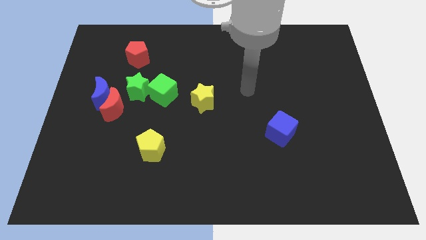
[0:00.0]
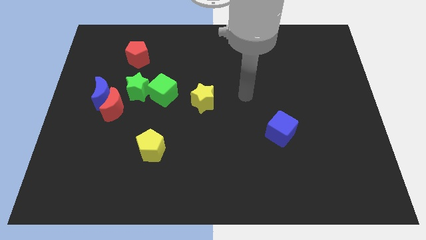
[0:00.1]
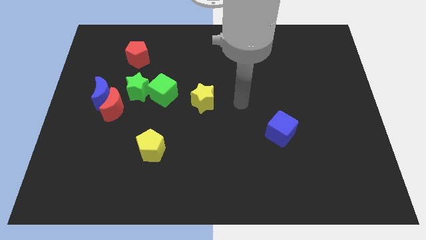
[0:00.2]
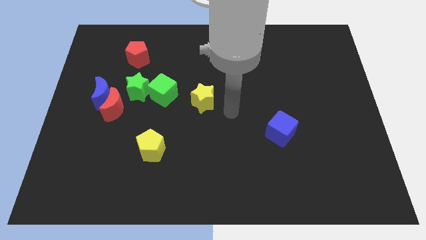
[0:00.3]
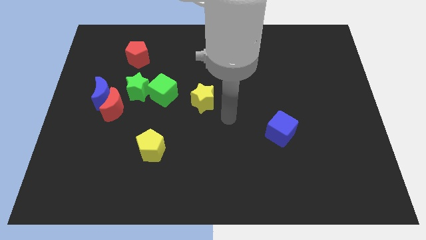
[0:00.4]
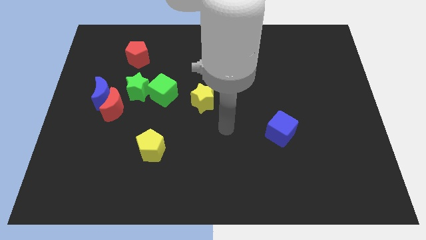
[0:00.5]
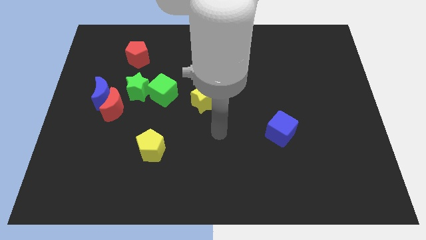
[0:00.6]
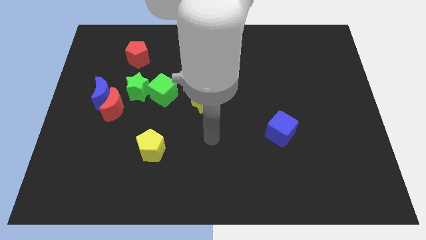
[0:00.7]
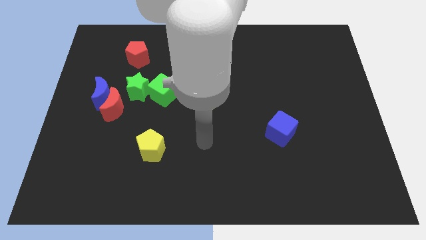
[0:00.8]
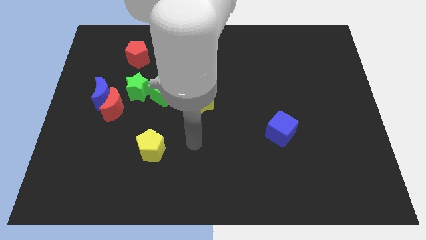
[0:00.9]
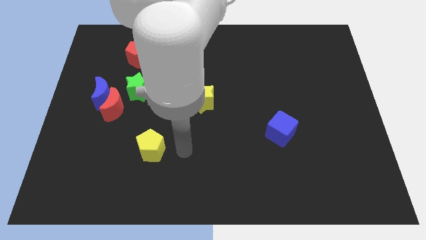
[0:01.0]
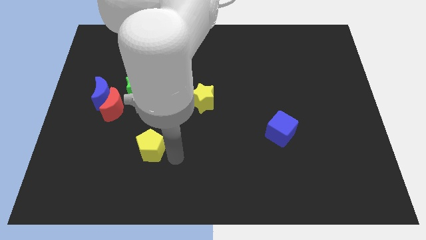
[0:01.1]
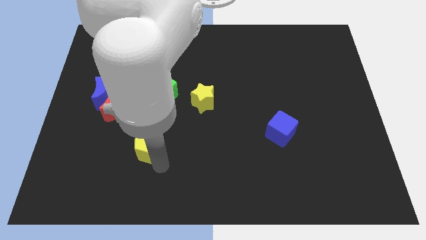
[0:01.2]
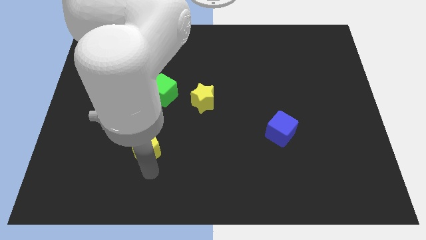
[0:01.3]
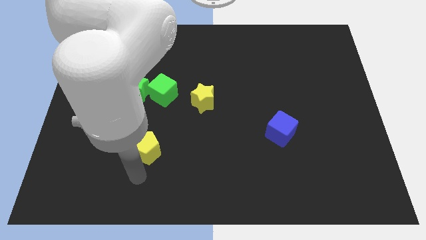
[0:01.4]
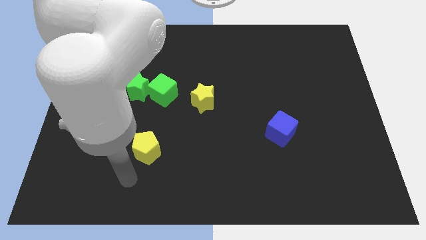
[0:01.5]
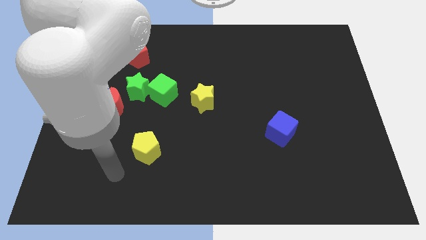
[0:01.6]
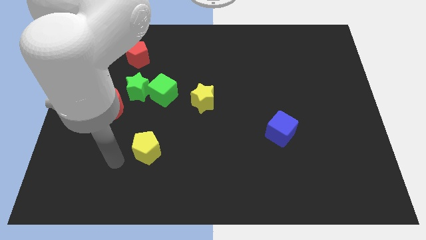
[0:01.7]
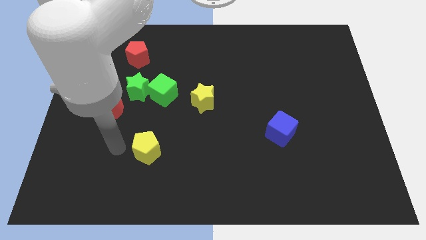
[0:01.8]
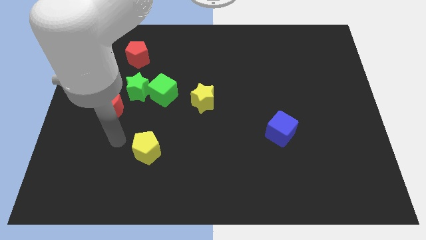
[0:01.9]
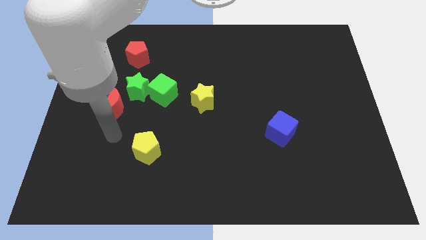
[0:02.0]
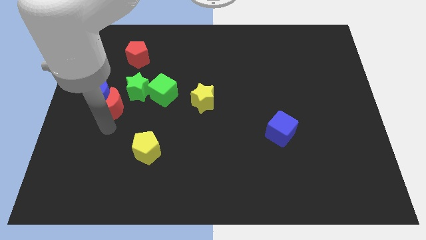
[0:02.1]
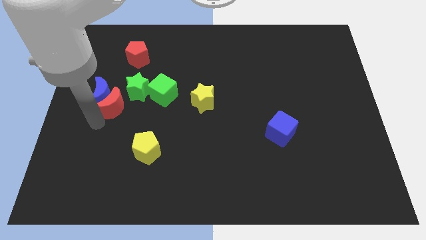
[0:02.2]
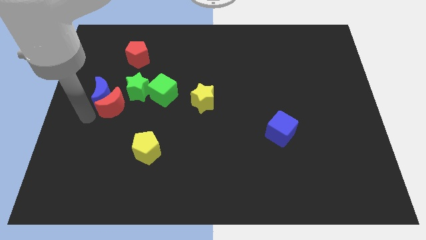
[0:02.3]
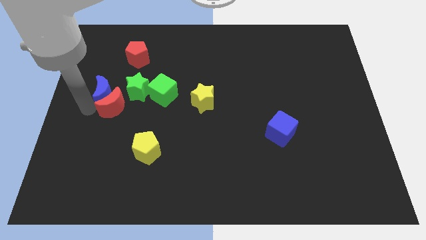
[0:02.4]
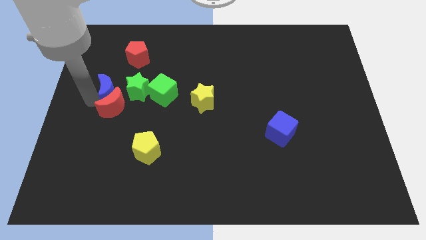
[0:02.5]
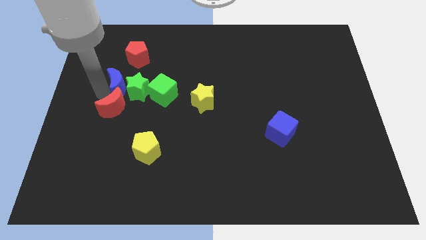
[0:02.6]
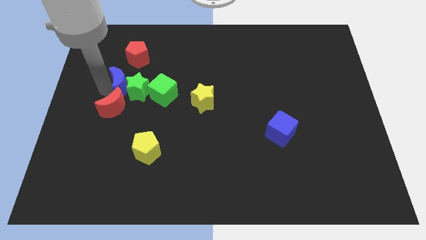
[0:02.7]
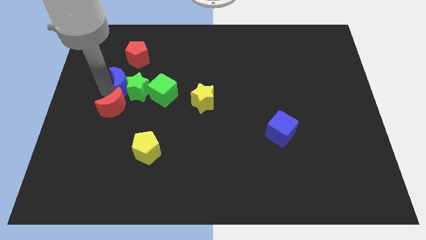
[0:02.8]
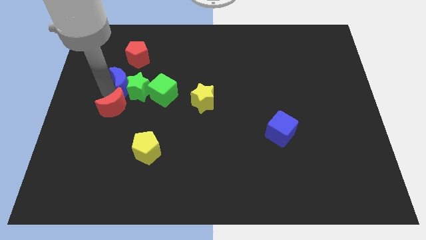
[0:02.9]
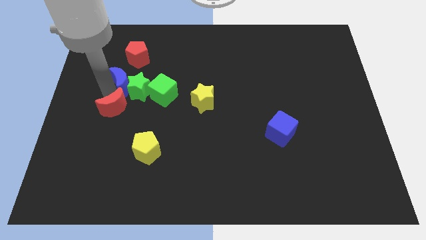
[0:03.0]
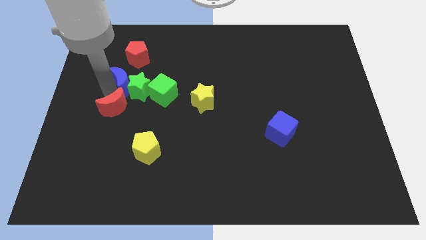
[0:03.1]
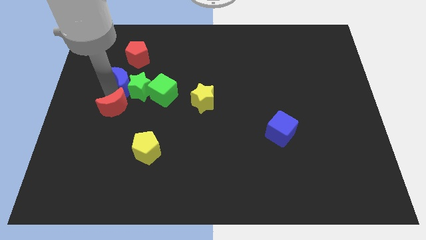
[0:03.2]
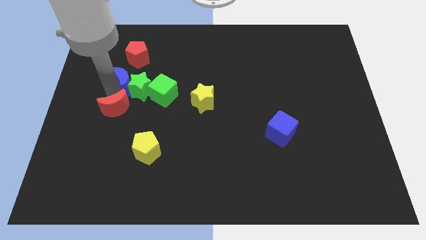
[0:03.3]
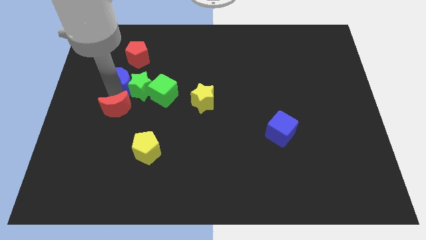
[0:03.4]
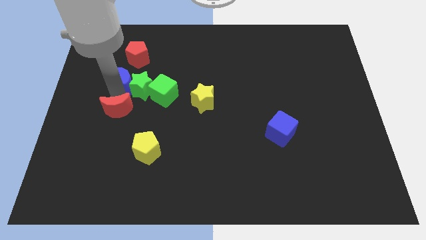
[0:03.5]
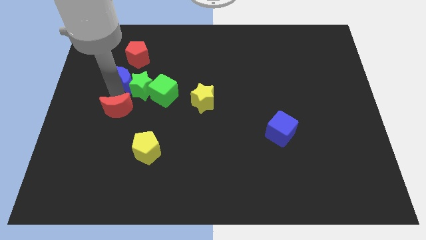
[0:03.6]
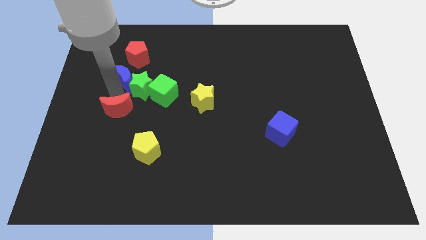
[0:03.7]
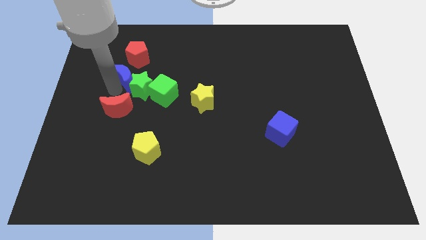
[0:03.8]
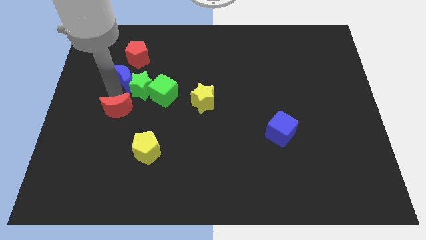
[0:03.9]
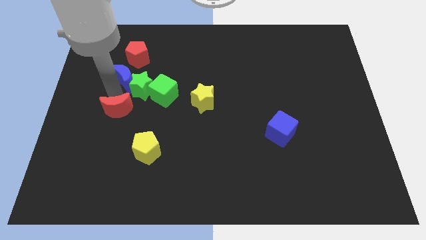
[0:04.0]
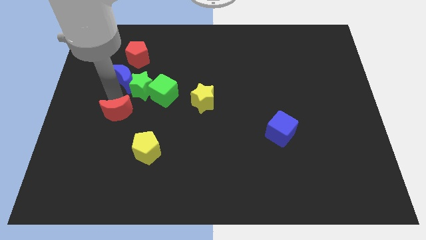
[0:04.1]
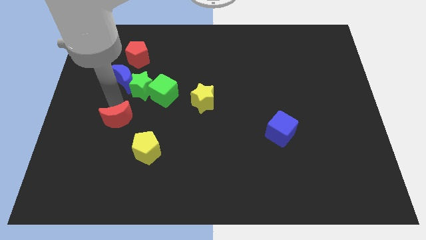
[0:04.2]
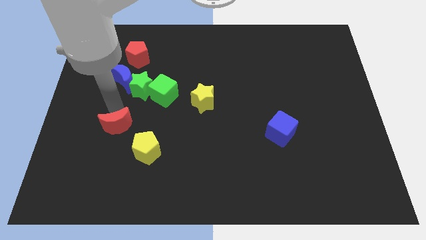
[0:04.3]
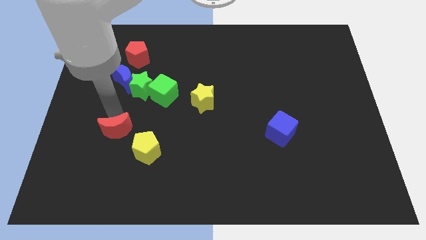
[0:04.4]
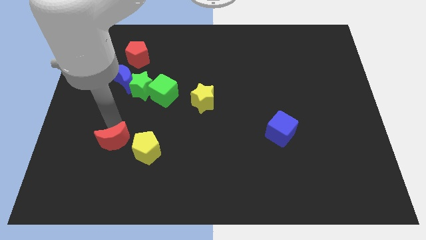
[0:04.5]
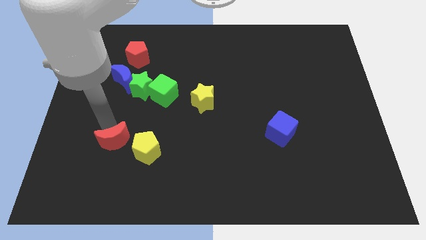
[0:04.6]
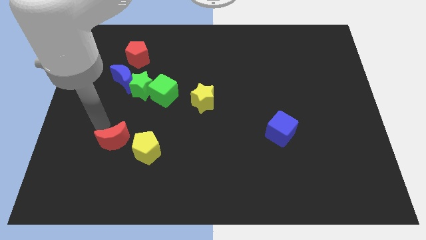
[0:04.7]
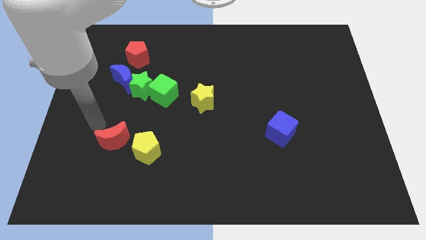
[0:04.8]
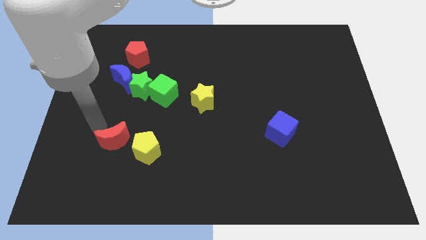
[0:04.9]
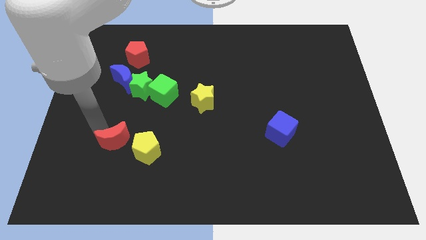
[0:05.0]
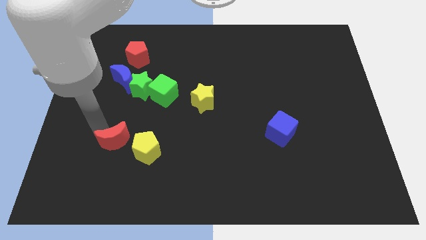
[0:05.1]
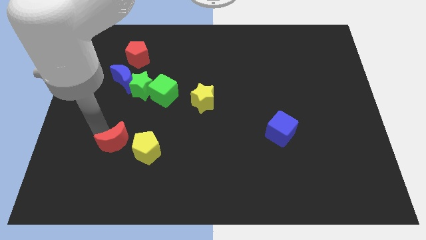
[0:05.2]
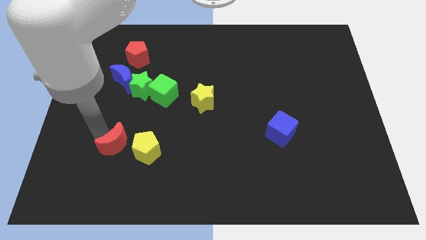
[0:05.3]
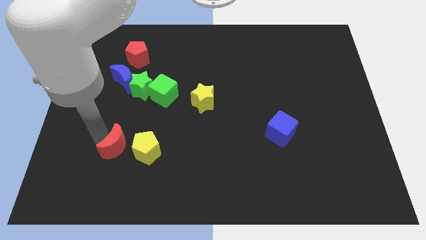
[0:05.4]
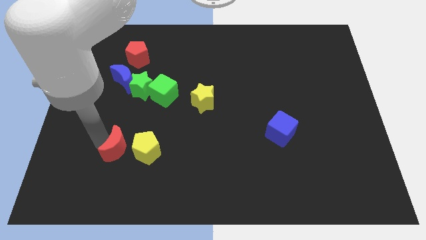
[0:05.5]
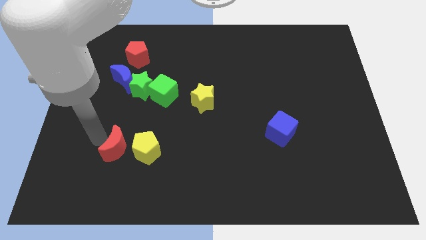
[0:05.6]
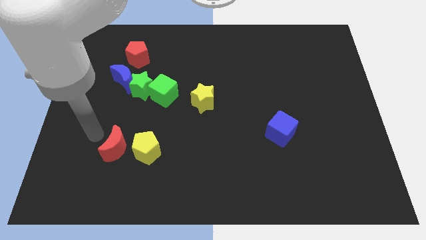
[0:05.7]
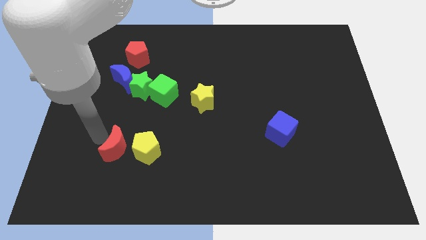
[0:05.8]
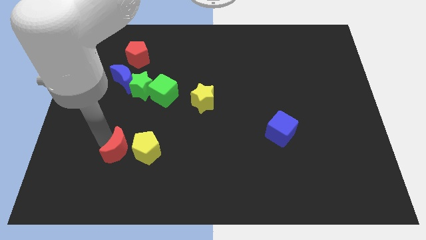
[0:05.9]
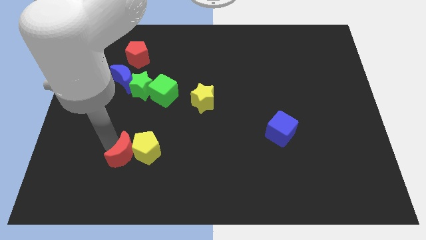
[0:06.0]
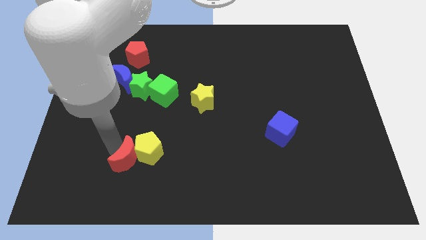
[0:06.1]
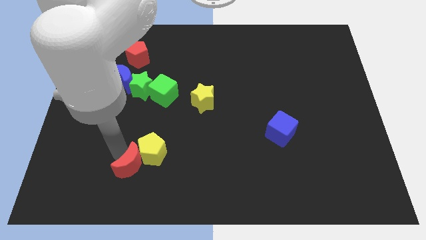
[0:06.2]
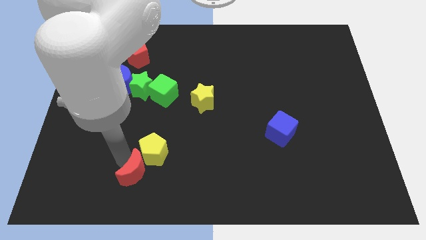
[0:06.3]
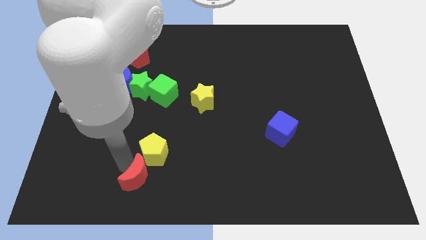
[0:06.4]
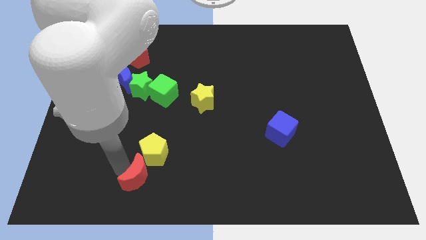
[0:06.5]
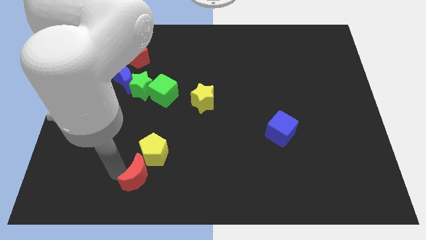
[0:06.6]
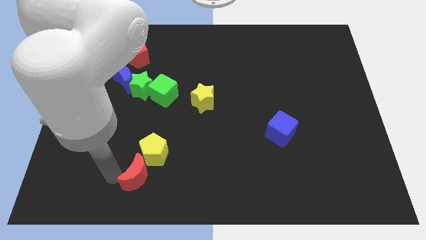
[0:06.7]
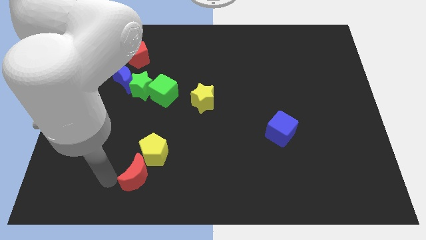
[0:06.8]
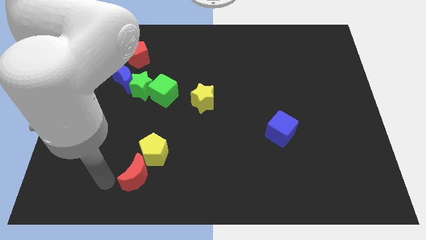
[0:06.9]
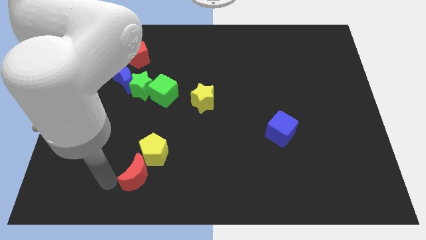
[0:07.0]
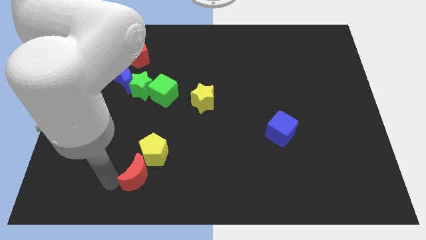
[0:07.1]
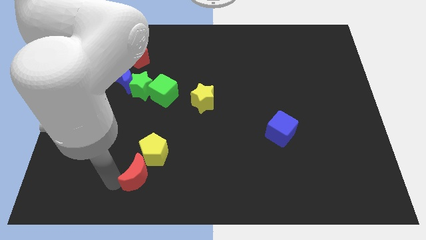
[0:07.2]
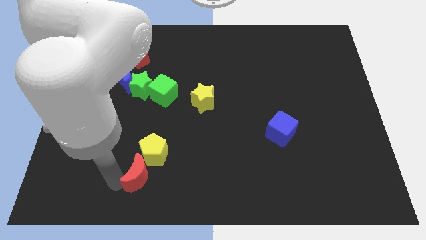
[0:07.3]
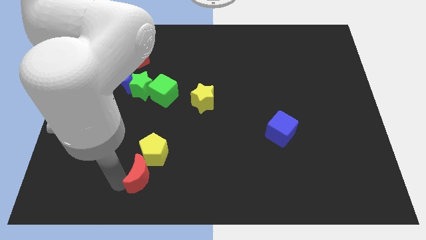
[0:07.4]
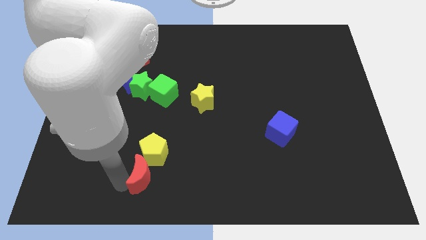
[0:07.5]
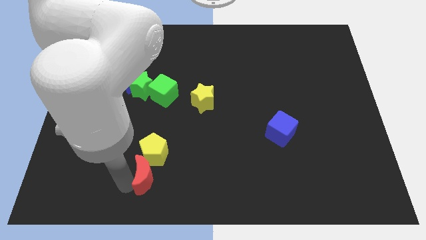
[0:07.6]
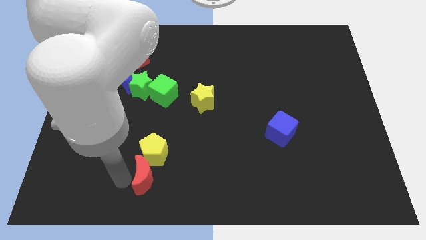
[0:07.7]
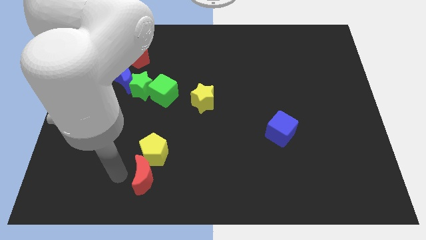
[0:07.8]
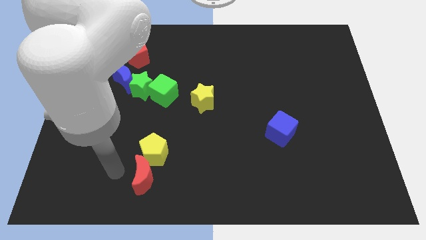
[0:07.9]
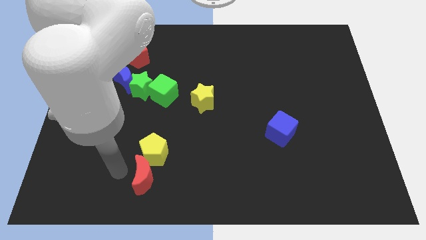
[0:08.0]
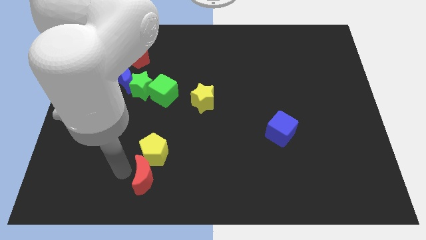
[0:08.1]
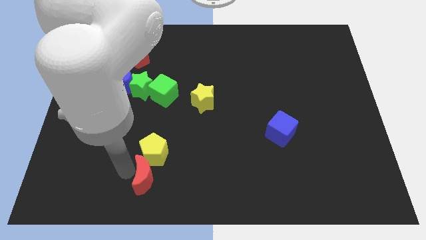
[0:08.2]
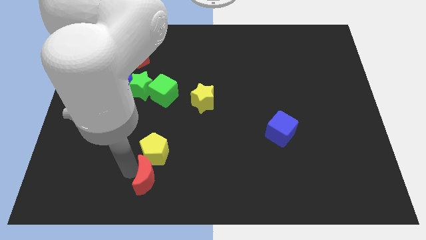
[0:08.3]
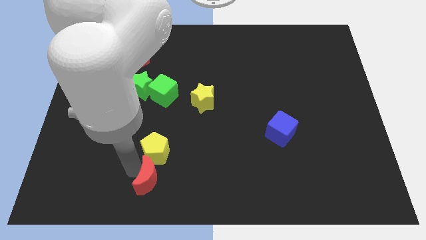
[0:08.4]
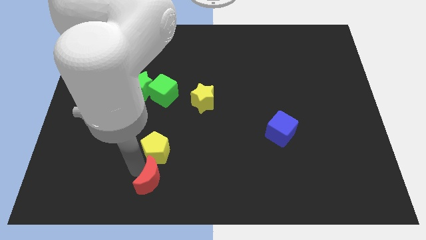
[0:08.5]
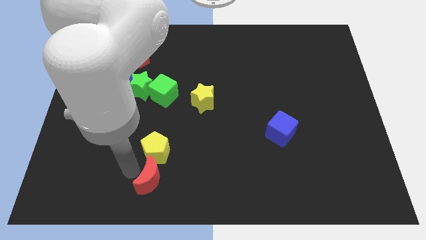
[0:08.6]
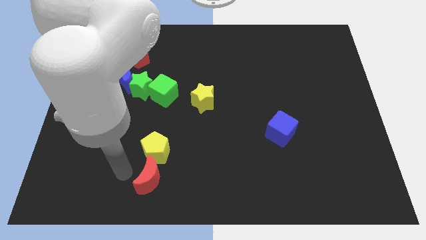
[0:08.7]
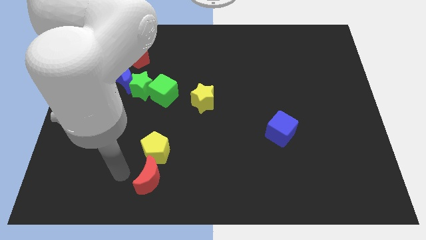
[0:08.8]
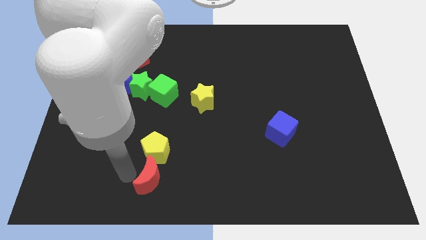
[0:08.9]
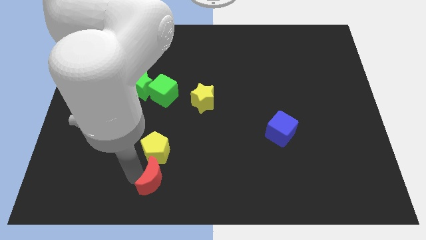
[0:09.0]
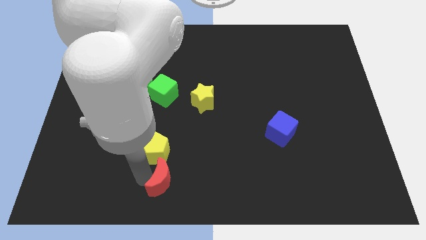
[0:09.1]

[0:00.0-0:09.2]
slide the red moon to the bottom side
